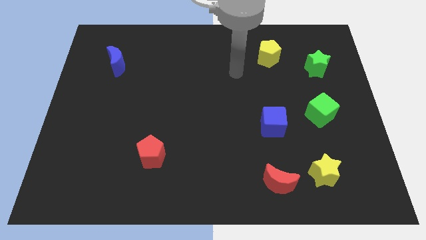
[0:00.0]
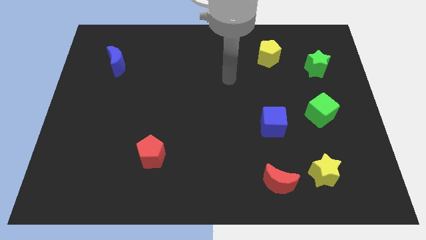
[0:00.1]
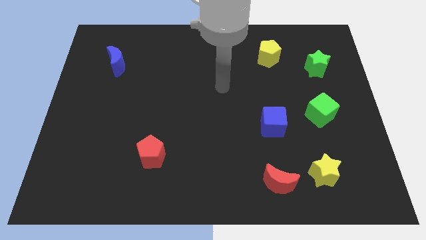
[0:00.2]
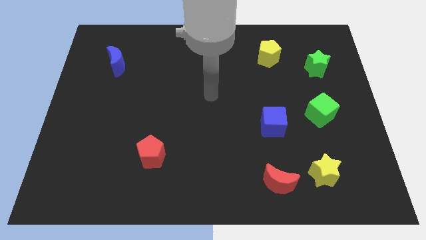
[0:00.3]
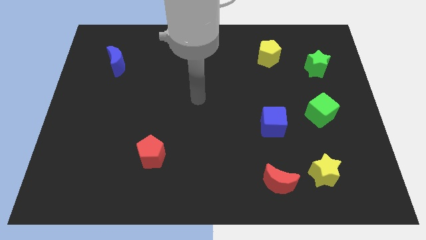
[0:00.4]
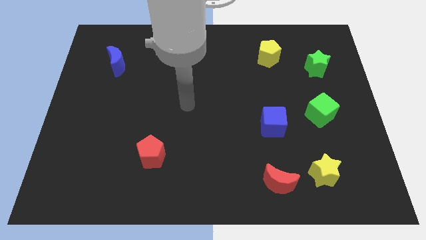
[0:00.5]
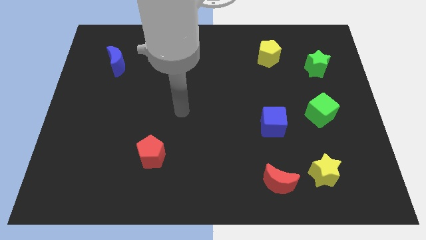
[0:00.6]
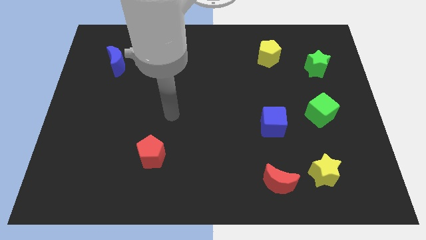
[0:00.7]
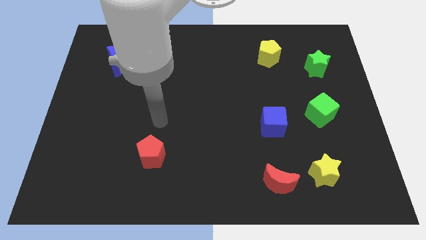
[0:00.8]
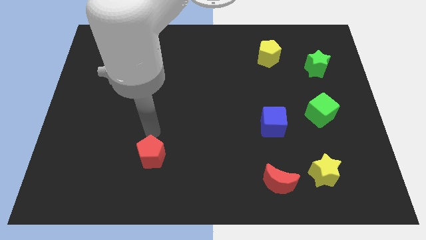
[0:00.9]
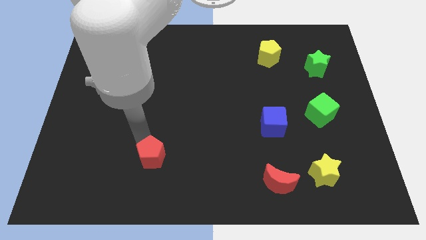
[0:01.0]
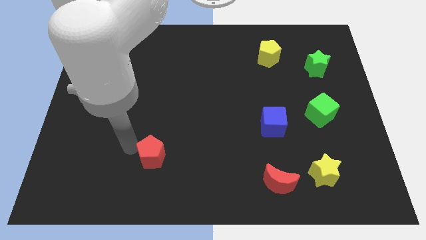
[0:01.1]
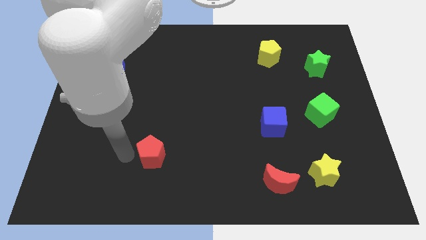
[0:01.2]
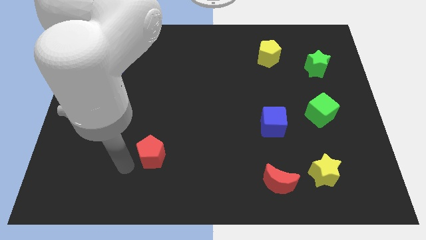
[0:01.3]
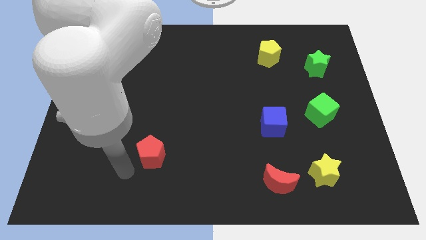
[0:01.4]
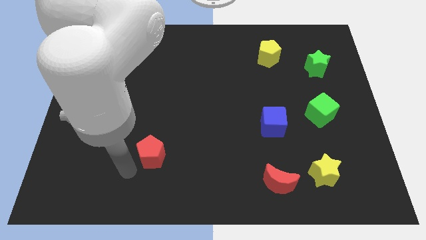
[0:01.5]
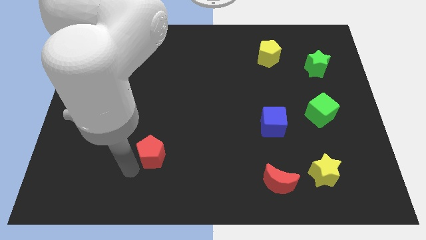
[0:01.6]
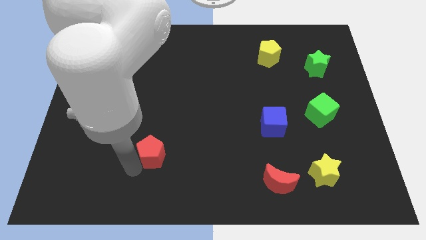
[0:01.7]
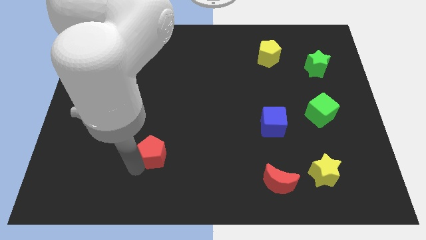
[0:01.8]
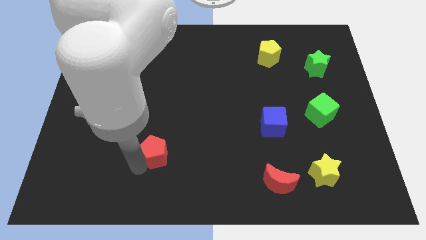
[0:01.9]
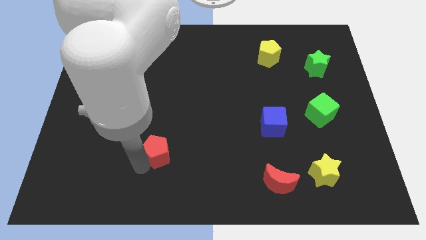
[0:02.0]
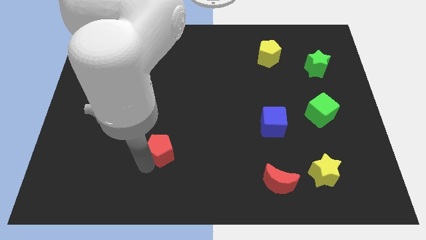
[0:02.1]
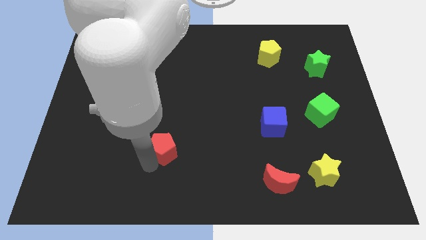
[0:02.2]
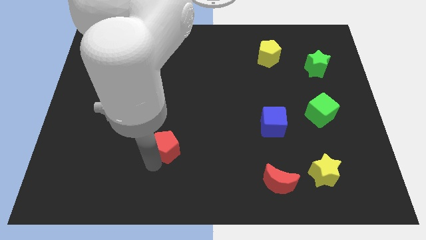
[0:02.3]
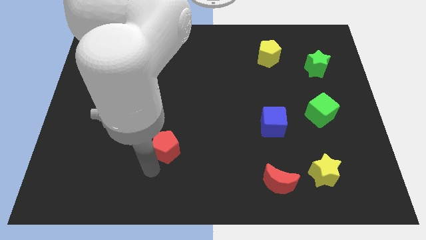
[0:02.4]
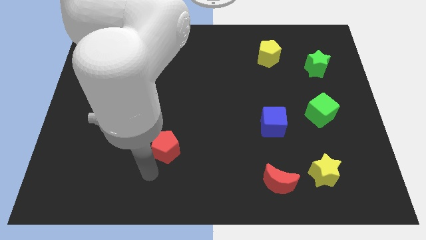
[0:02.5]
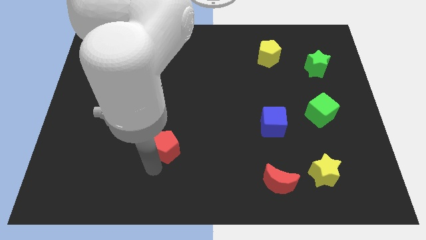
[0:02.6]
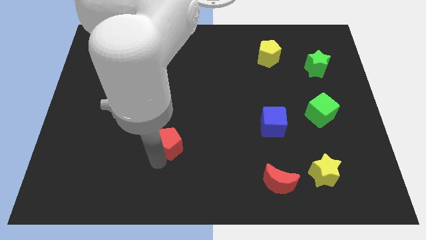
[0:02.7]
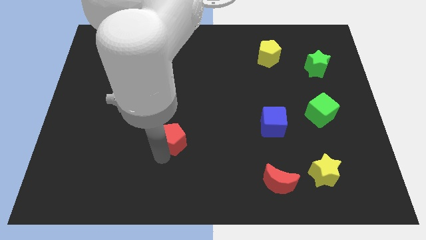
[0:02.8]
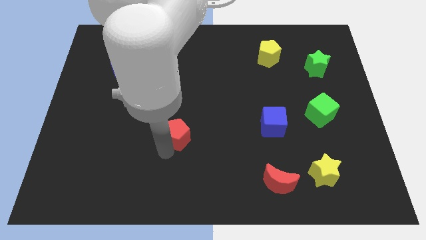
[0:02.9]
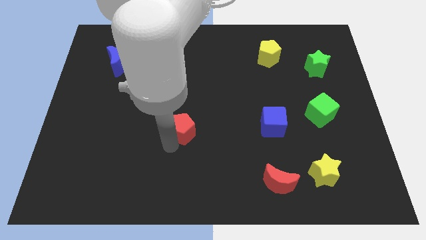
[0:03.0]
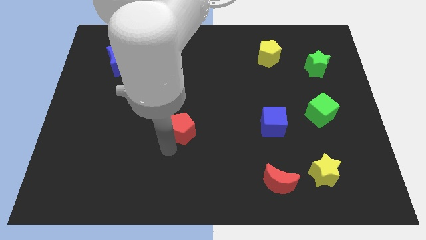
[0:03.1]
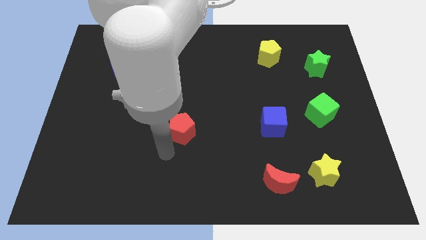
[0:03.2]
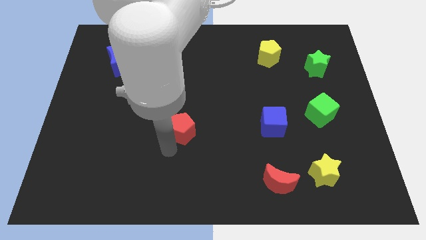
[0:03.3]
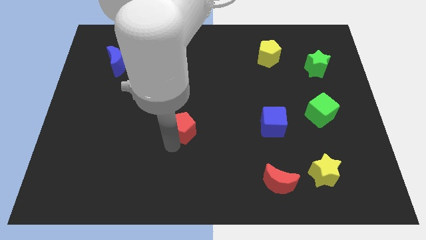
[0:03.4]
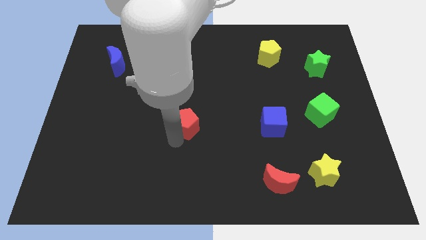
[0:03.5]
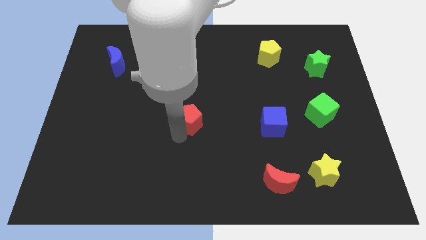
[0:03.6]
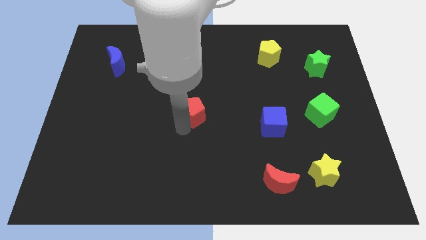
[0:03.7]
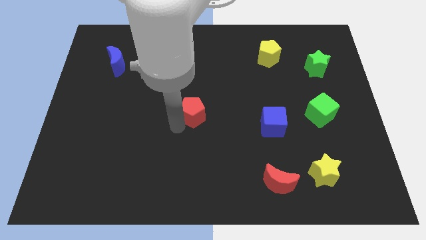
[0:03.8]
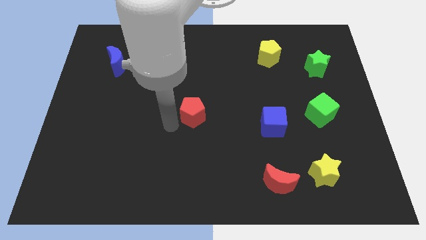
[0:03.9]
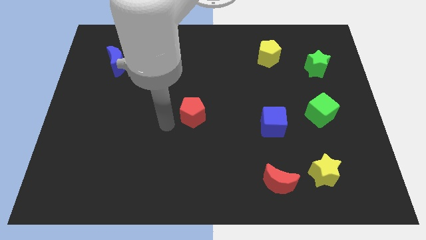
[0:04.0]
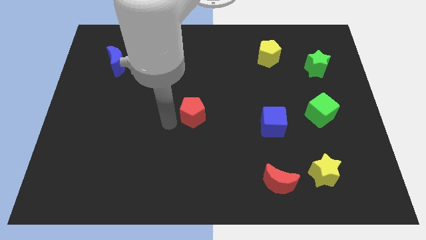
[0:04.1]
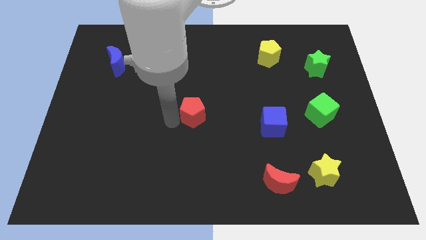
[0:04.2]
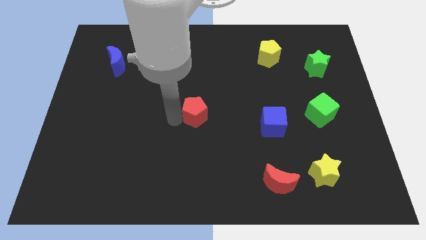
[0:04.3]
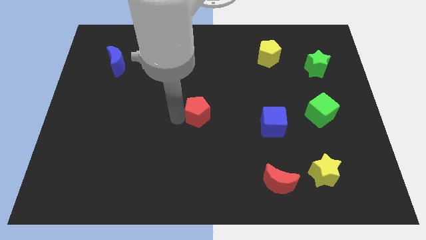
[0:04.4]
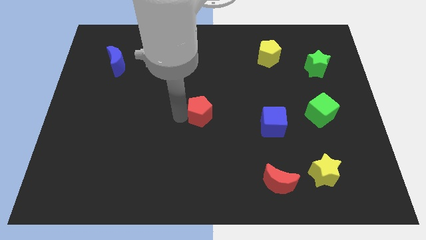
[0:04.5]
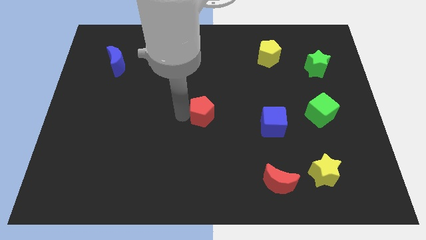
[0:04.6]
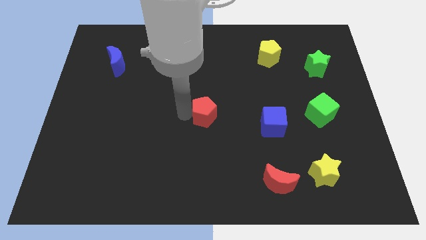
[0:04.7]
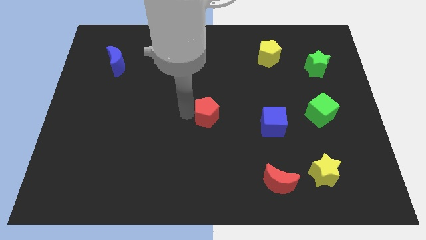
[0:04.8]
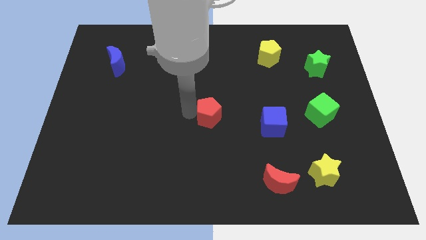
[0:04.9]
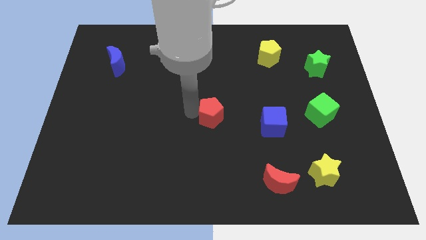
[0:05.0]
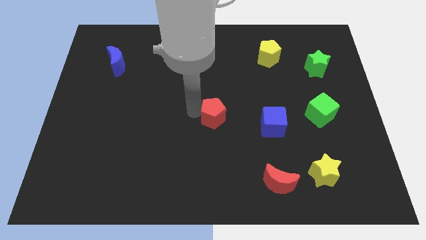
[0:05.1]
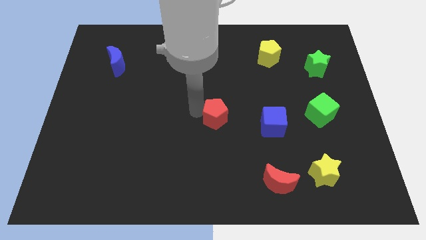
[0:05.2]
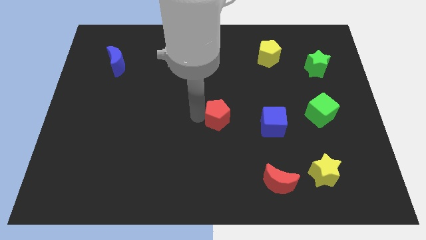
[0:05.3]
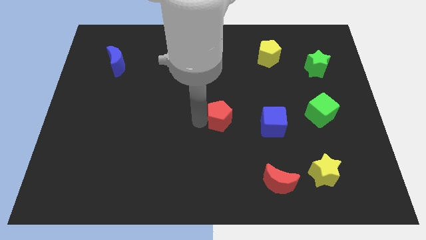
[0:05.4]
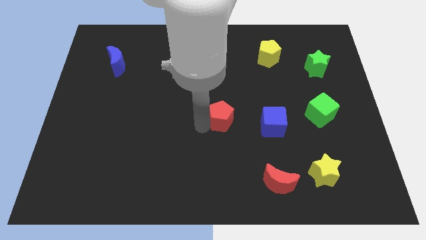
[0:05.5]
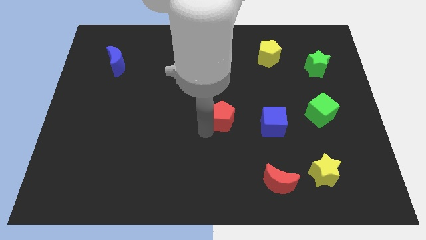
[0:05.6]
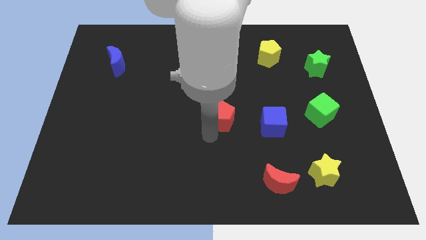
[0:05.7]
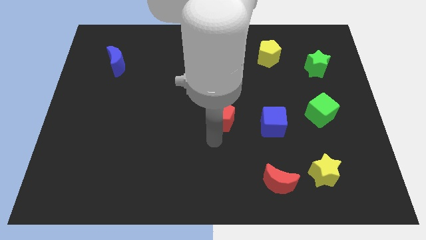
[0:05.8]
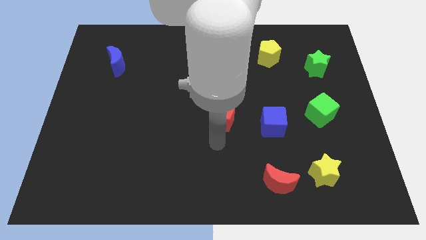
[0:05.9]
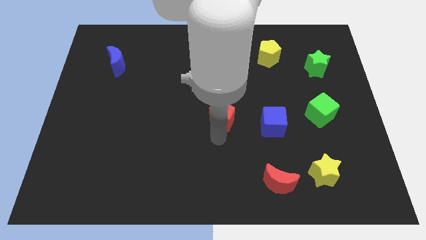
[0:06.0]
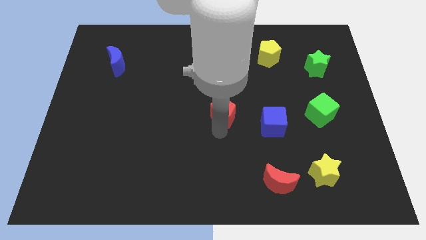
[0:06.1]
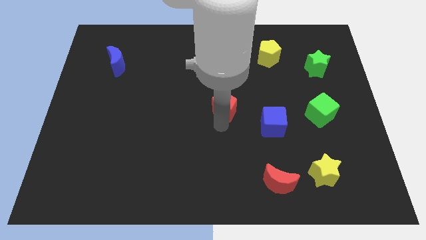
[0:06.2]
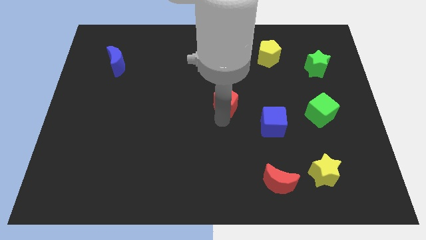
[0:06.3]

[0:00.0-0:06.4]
slide the red pentagon up and to the right diagonally

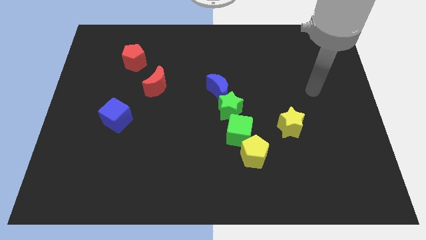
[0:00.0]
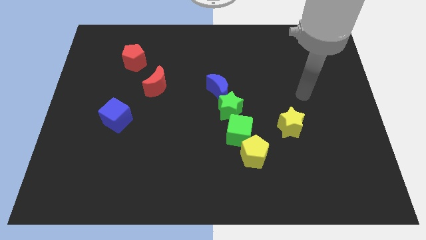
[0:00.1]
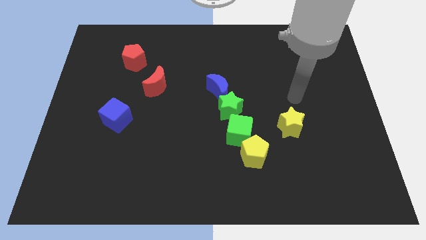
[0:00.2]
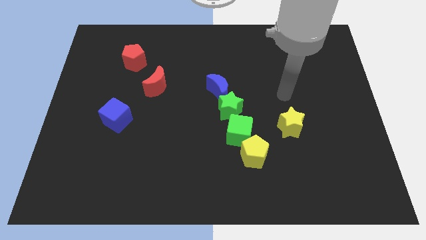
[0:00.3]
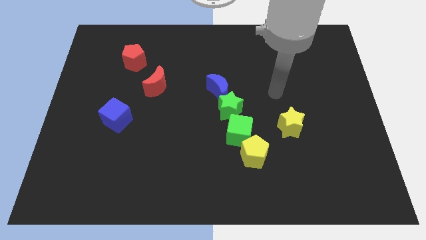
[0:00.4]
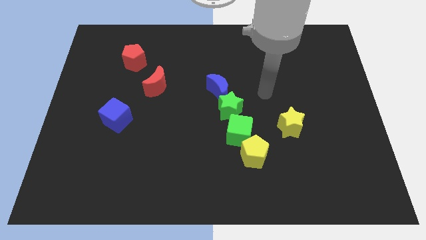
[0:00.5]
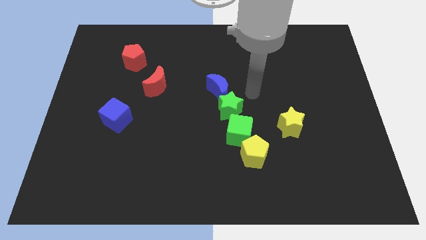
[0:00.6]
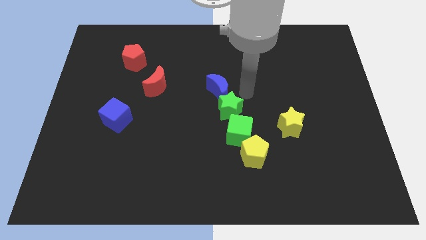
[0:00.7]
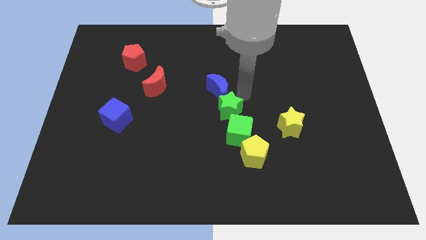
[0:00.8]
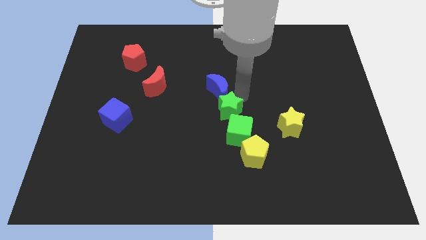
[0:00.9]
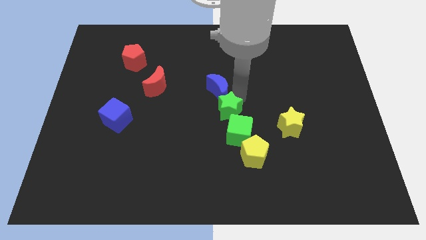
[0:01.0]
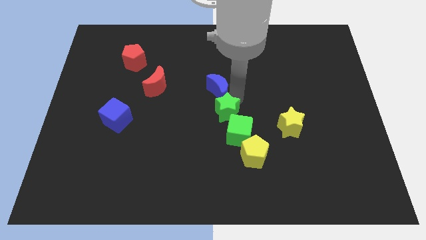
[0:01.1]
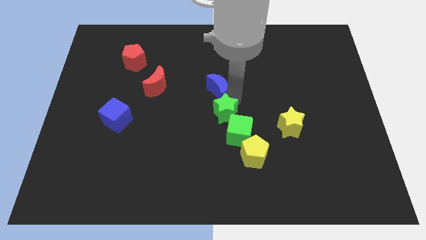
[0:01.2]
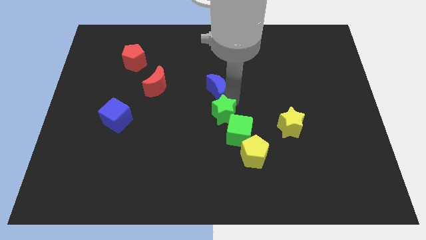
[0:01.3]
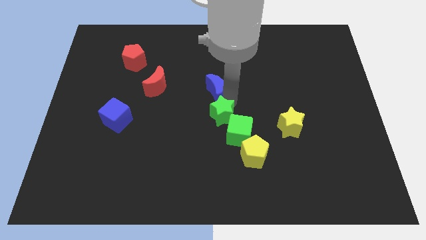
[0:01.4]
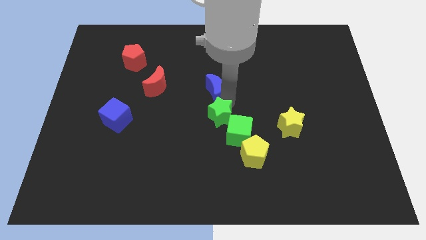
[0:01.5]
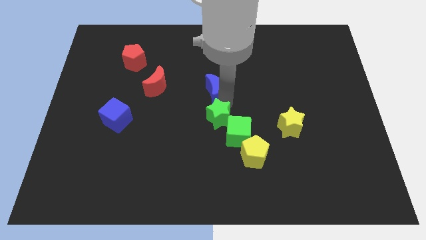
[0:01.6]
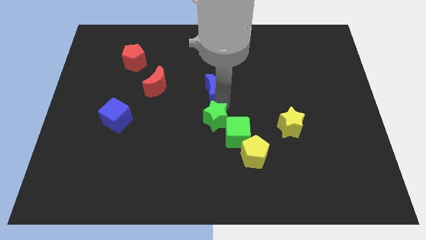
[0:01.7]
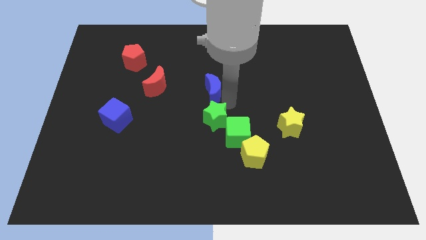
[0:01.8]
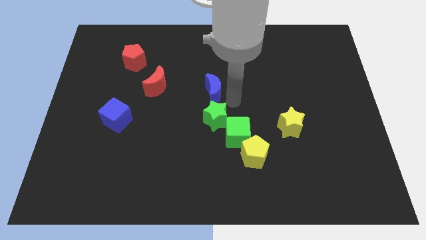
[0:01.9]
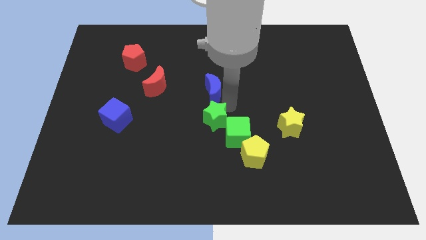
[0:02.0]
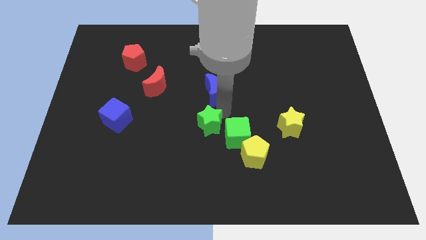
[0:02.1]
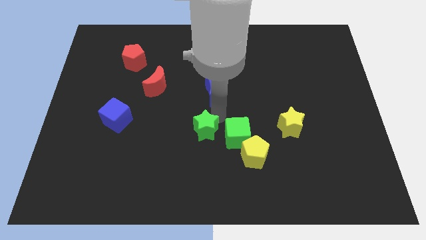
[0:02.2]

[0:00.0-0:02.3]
move the green star a bit downwards and left
